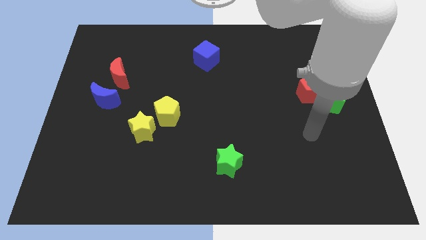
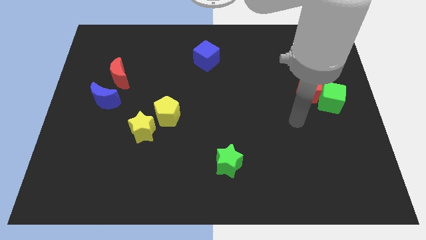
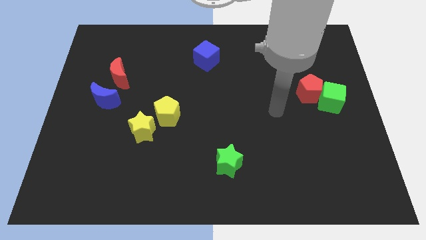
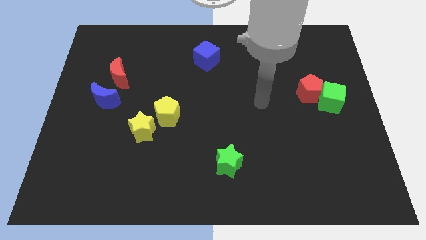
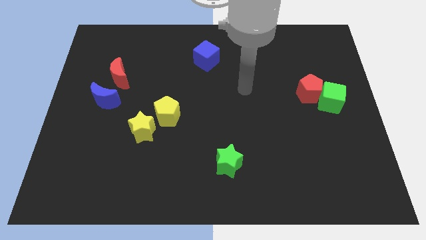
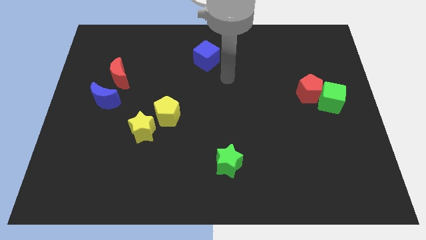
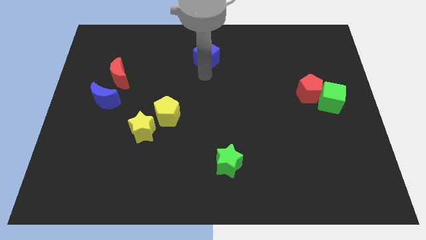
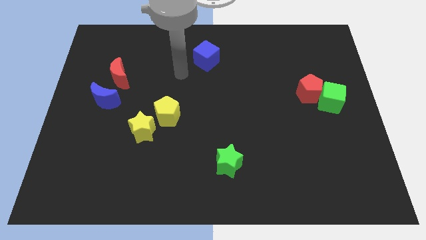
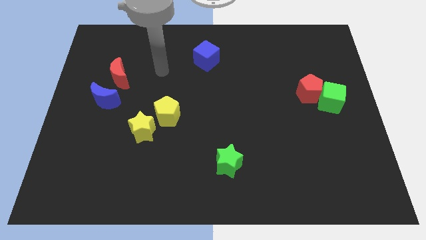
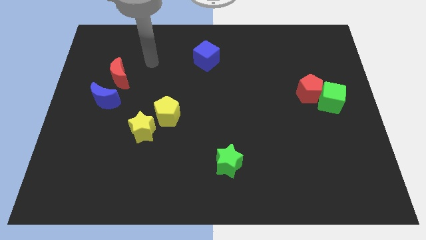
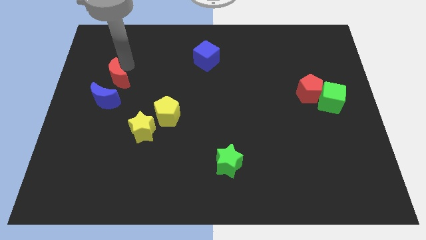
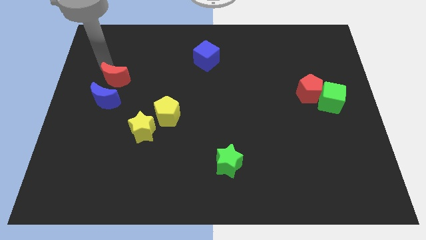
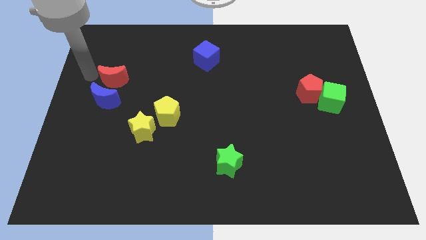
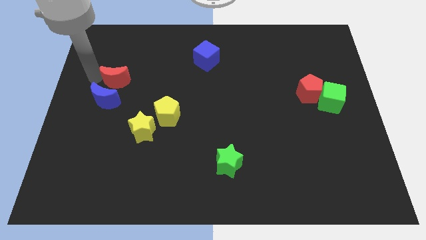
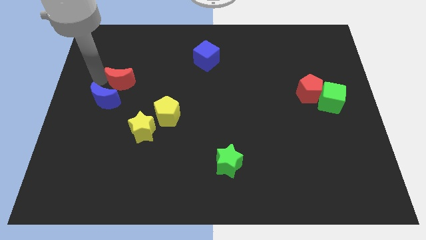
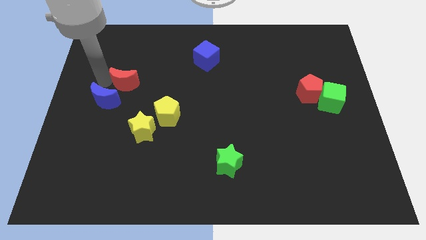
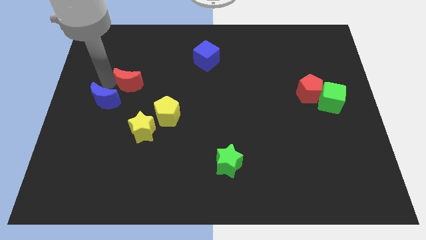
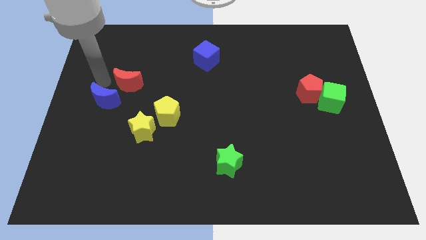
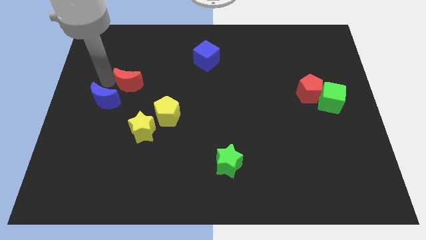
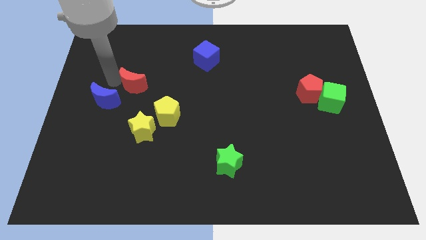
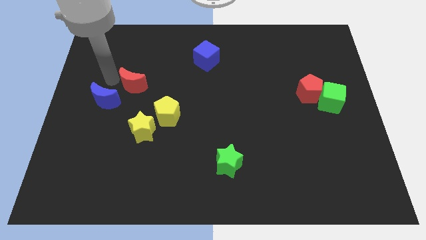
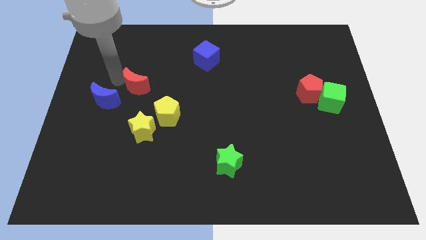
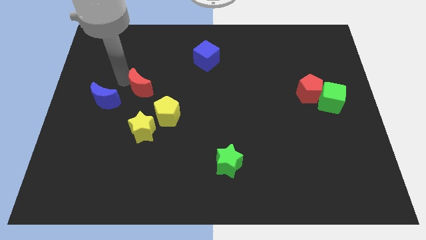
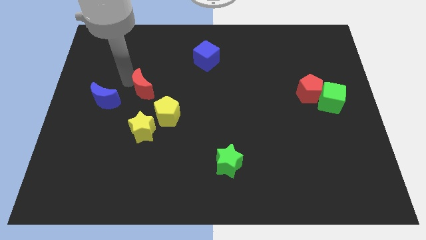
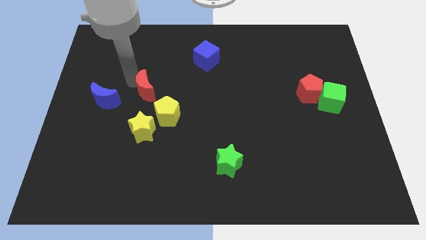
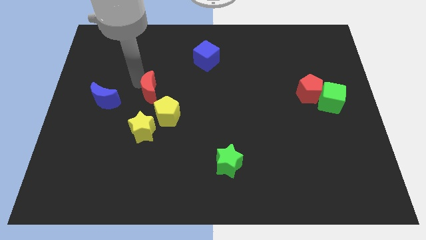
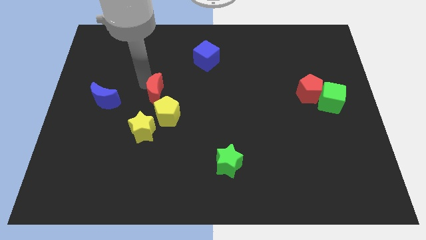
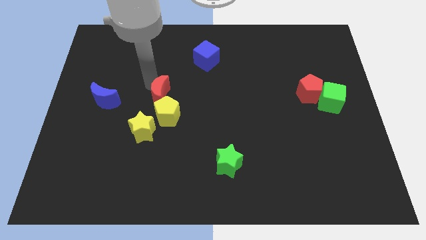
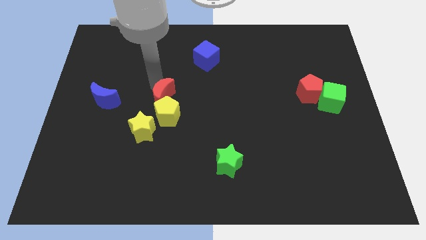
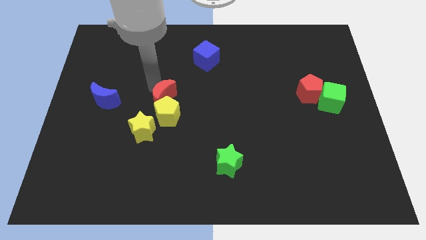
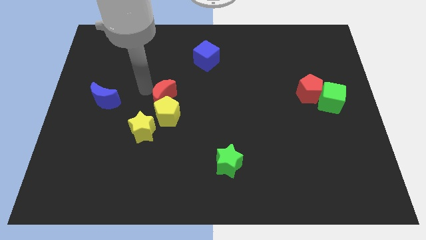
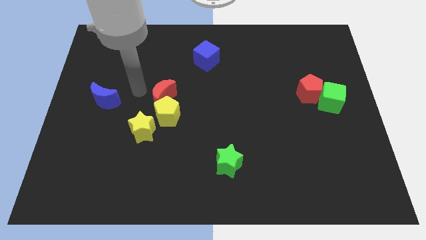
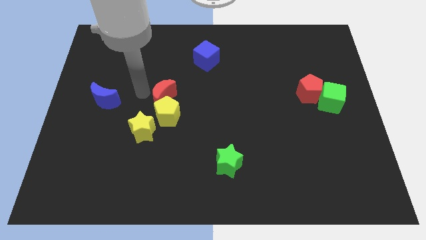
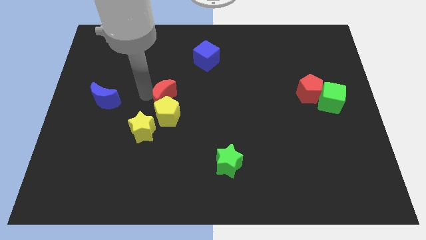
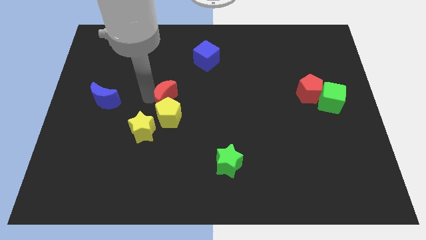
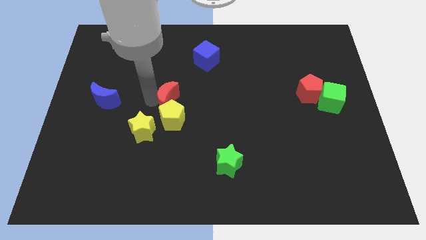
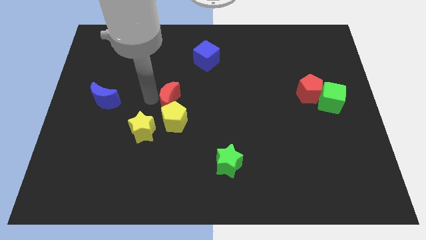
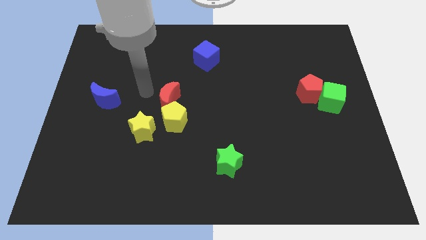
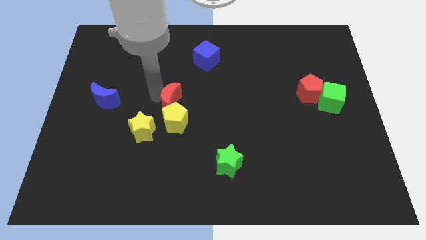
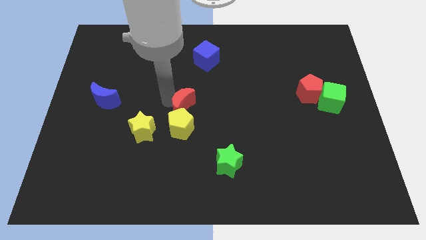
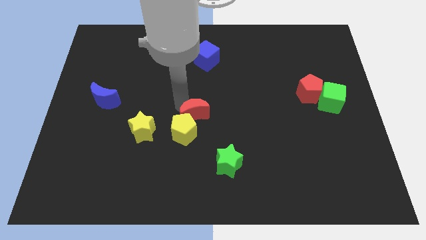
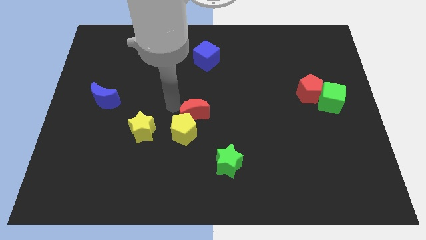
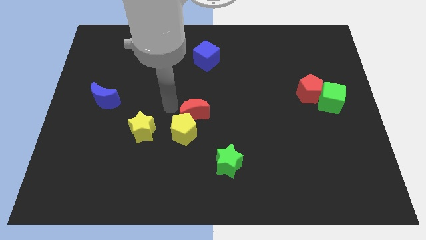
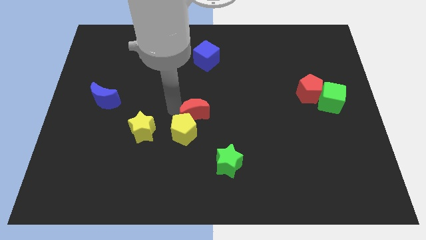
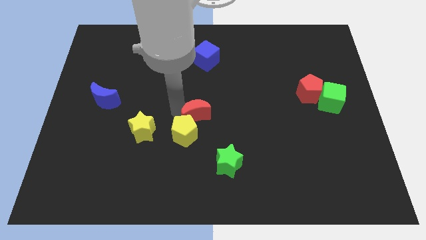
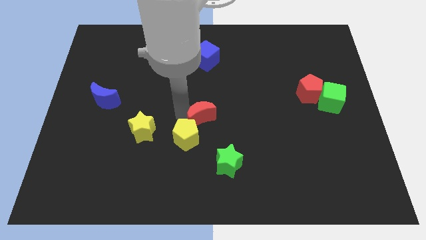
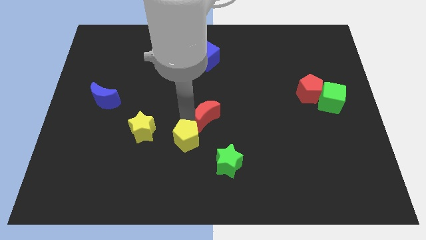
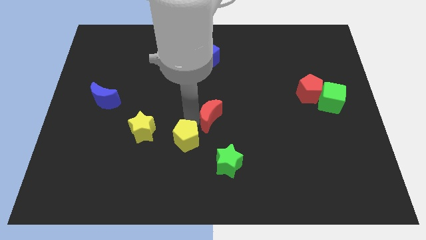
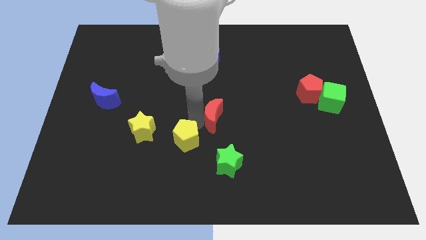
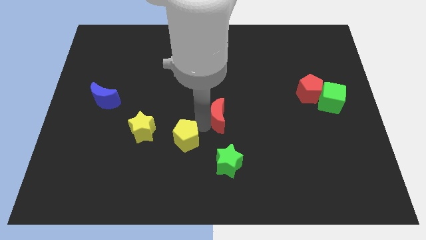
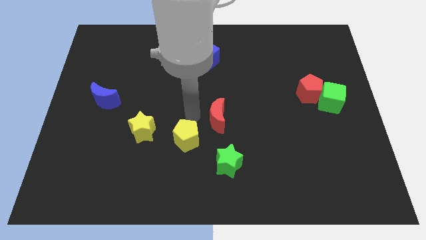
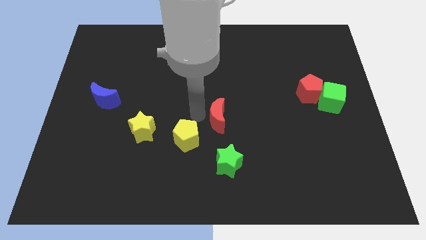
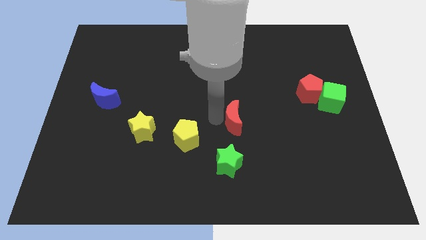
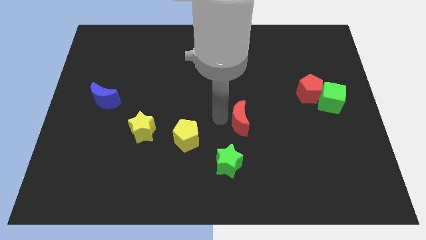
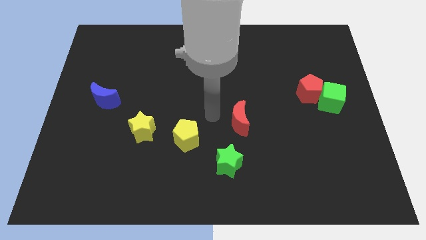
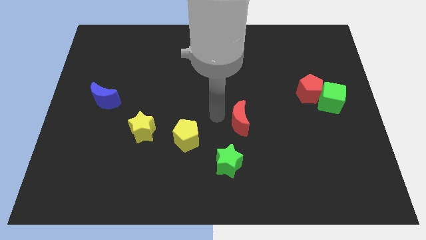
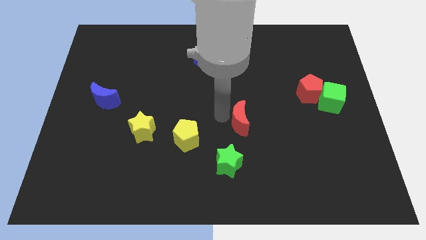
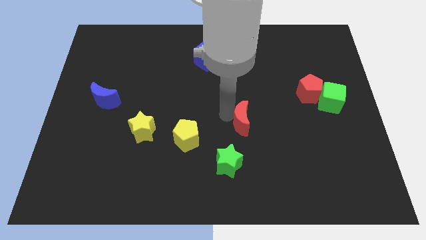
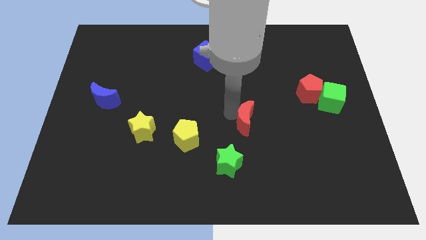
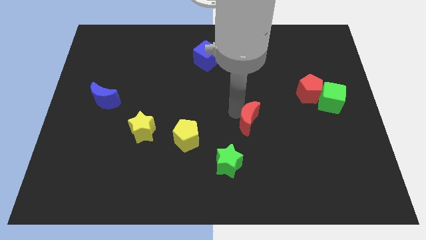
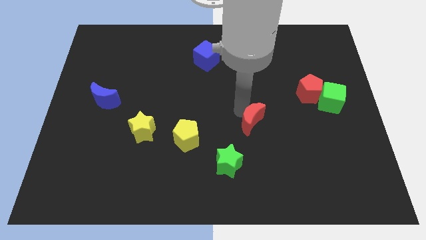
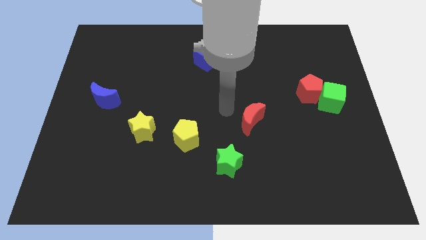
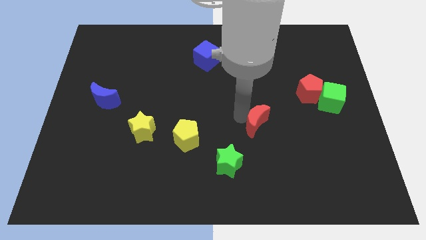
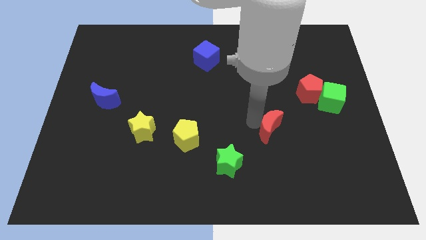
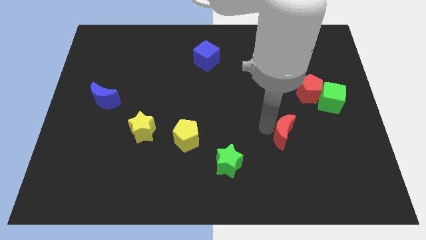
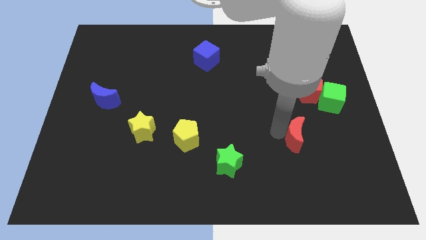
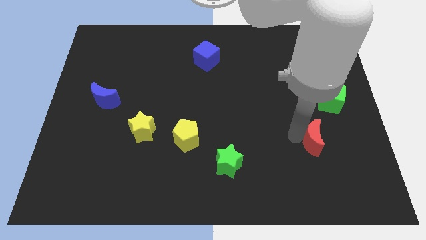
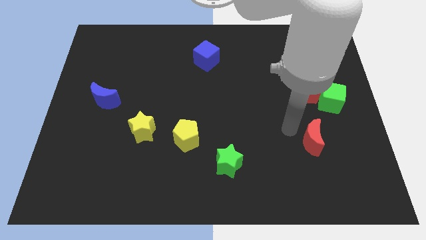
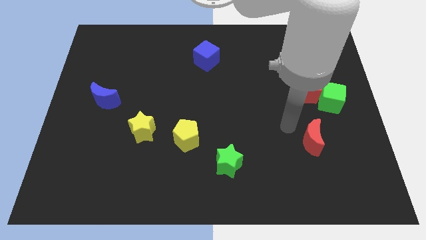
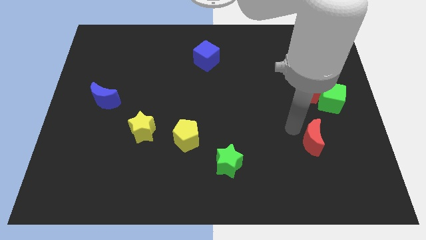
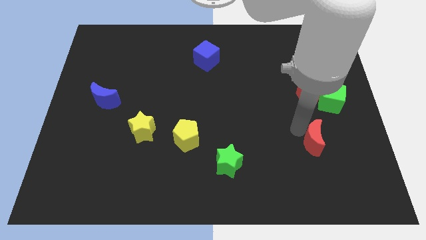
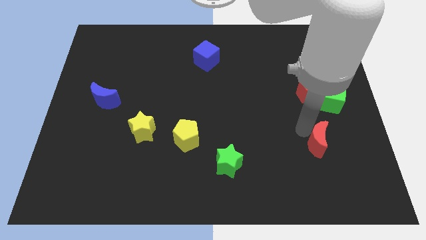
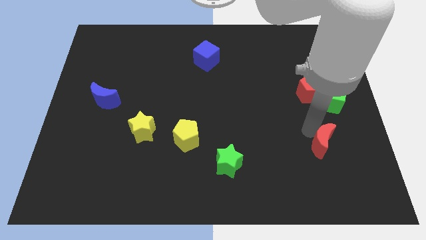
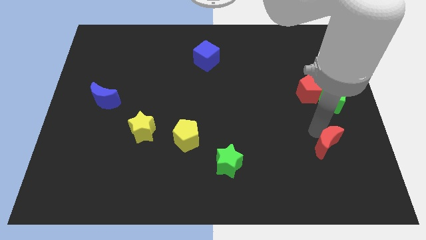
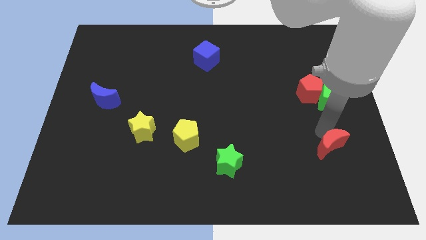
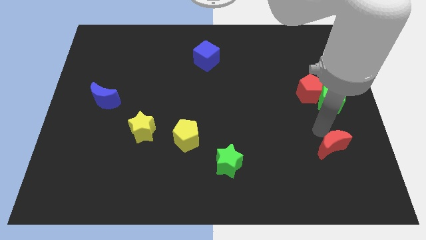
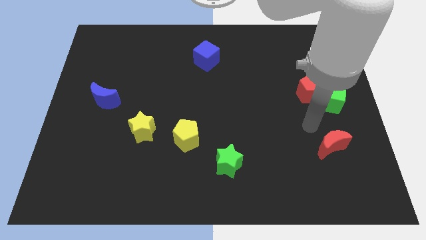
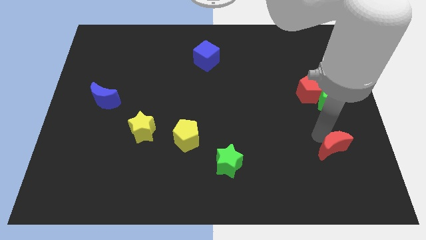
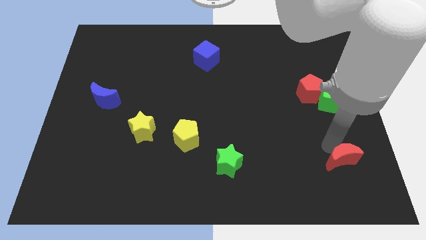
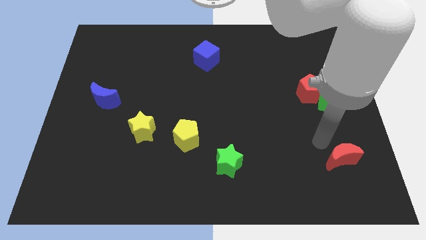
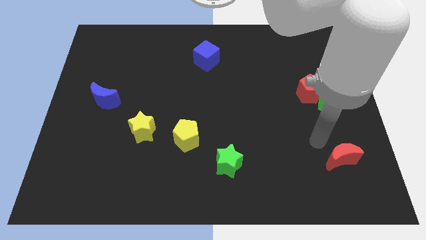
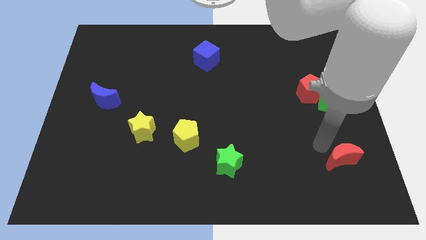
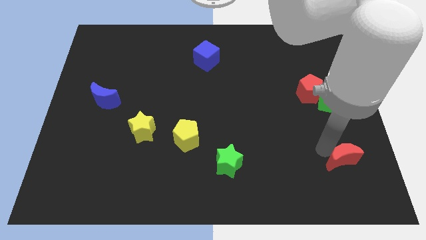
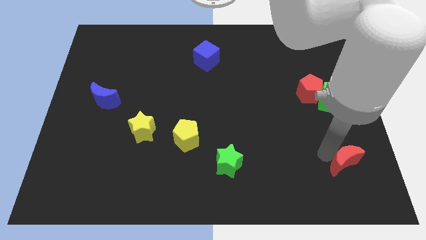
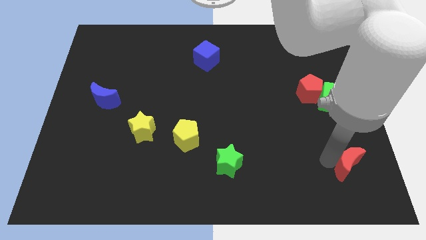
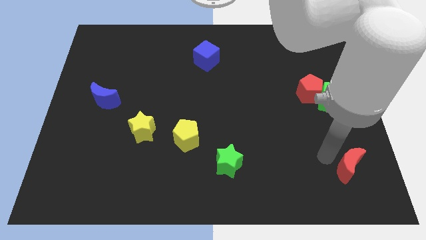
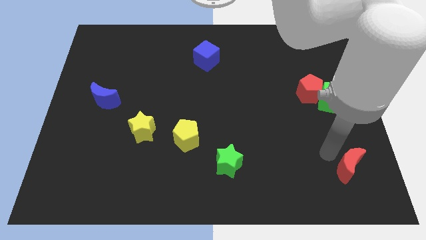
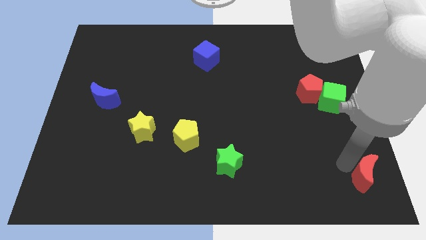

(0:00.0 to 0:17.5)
push the red moon to the lower right corner
